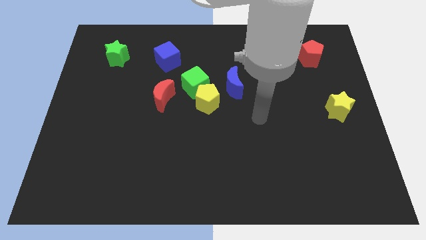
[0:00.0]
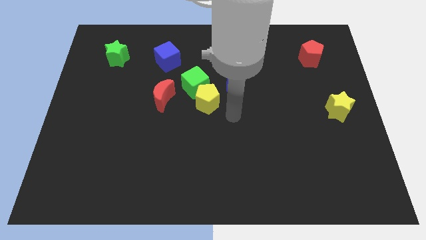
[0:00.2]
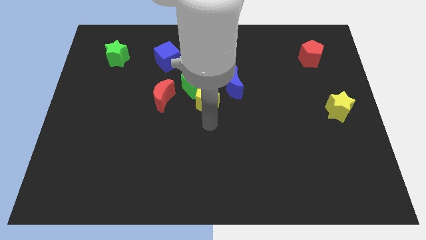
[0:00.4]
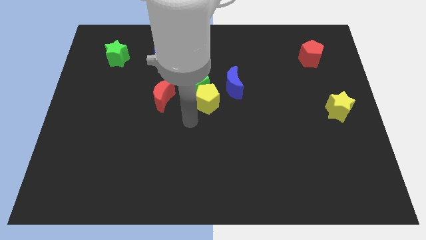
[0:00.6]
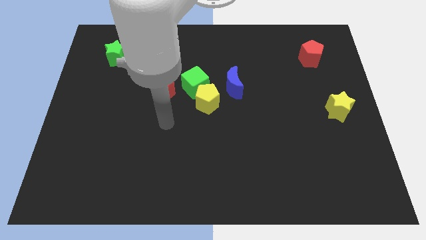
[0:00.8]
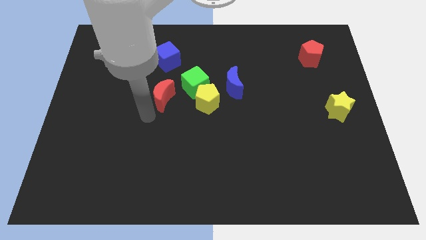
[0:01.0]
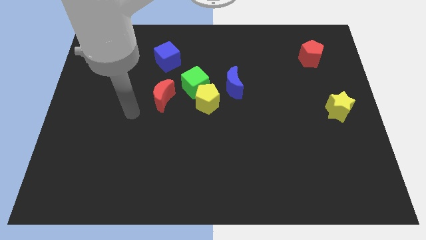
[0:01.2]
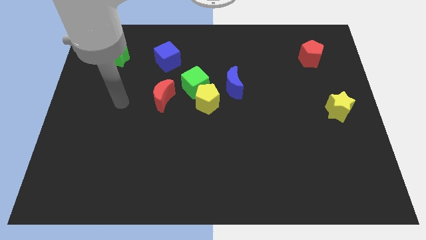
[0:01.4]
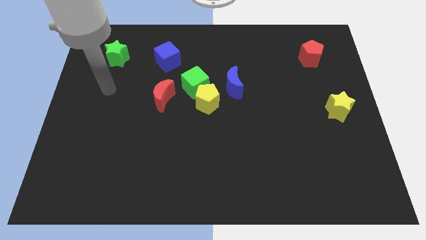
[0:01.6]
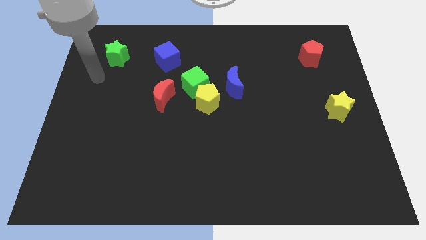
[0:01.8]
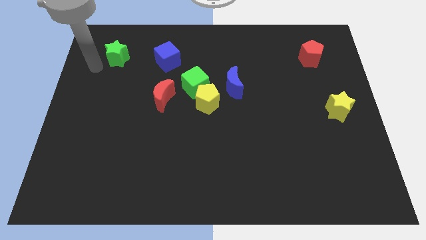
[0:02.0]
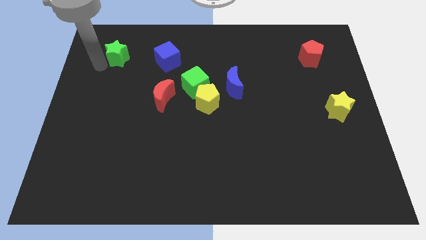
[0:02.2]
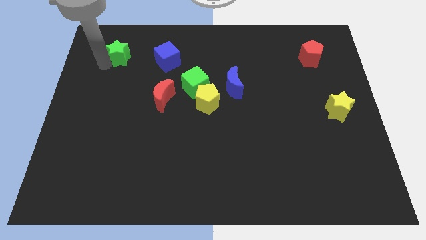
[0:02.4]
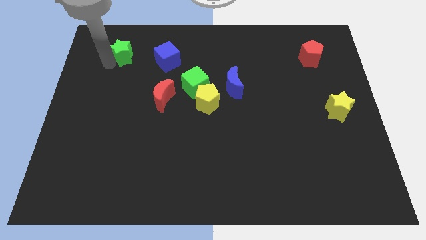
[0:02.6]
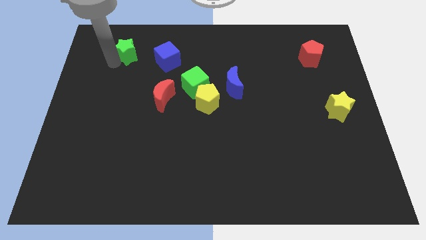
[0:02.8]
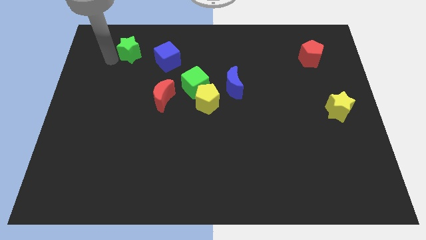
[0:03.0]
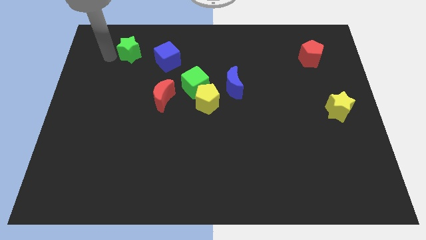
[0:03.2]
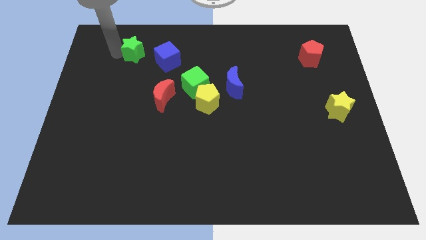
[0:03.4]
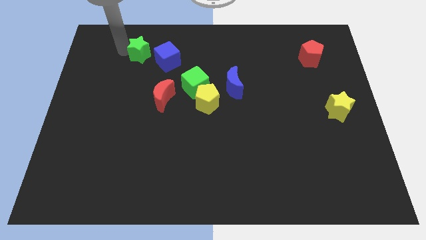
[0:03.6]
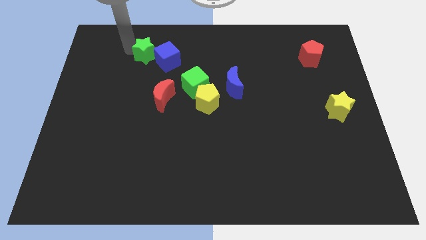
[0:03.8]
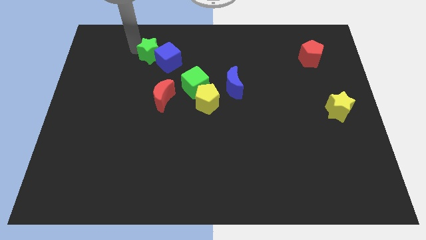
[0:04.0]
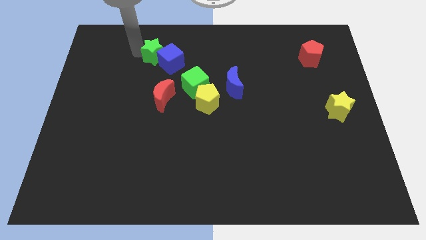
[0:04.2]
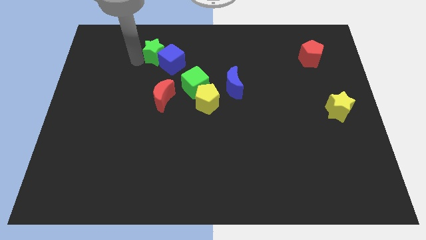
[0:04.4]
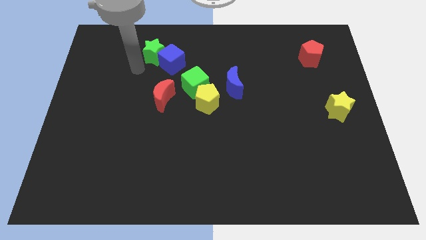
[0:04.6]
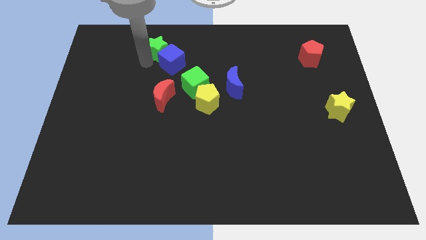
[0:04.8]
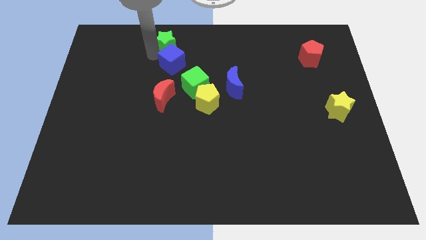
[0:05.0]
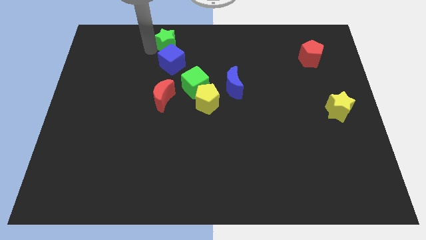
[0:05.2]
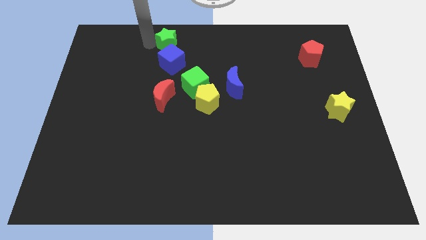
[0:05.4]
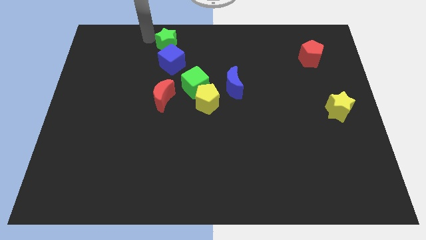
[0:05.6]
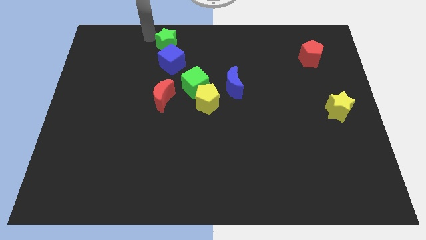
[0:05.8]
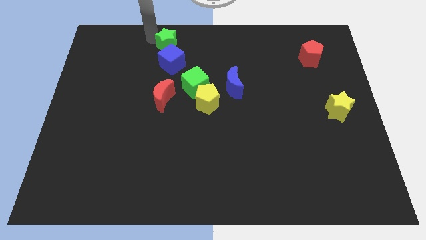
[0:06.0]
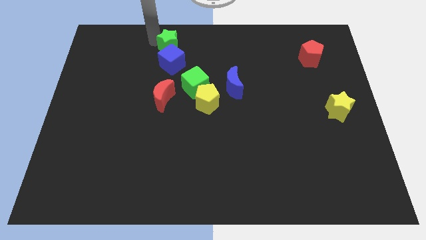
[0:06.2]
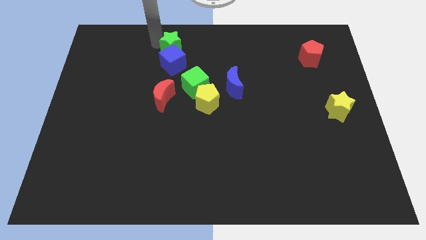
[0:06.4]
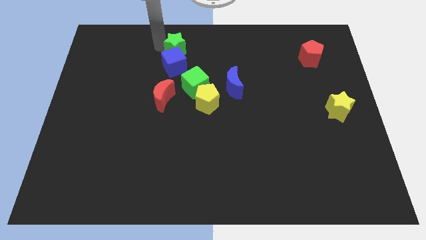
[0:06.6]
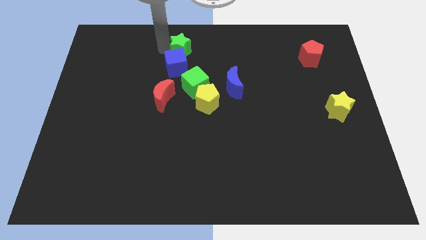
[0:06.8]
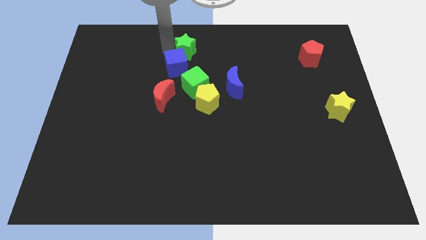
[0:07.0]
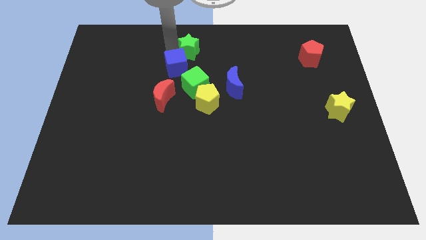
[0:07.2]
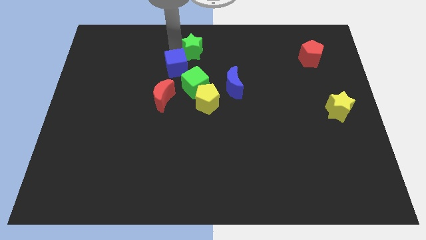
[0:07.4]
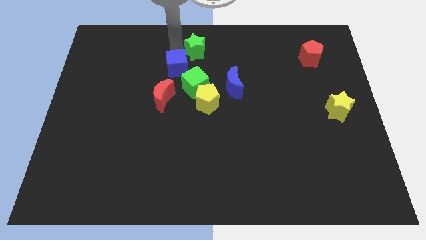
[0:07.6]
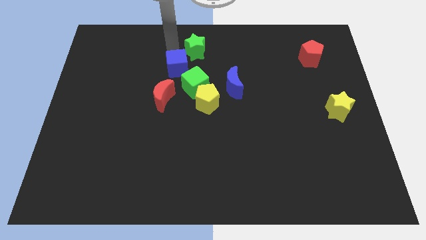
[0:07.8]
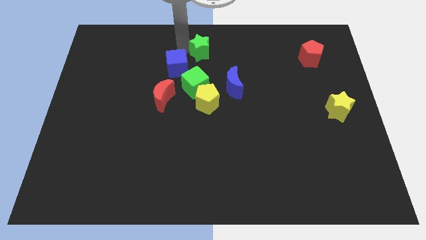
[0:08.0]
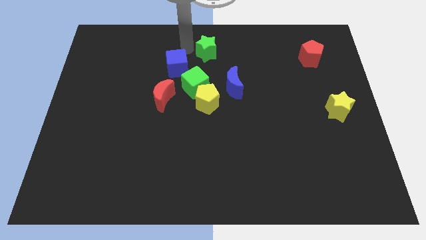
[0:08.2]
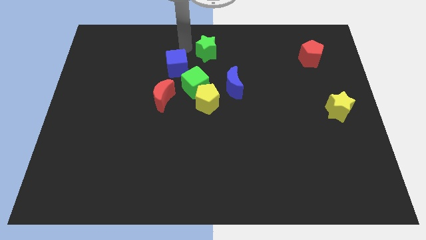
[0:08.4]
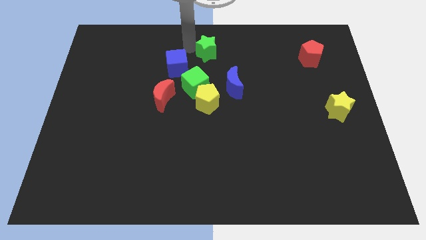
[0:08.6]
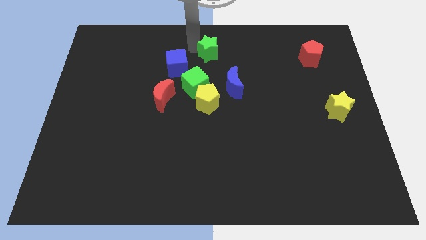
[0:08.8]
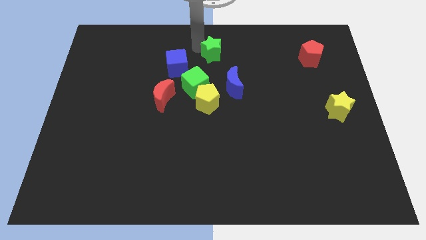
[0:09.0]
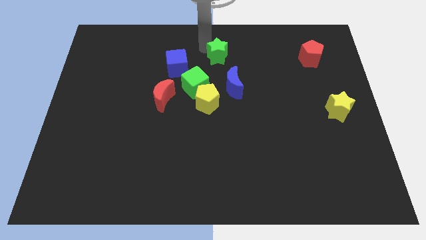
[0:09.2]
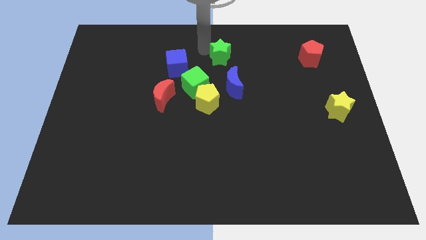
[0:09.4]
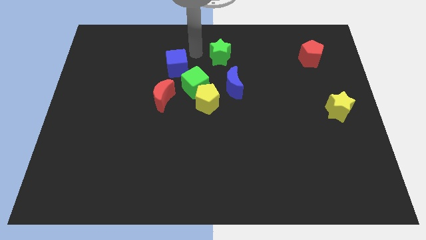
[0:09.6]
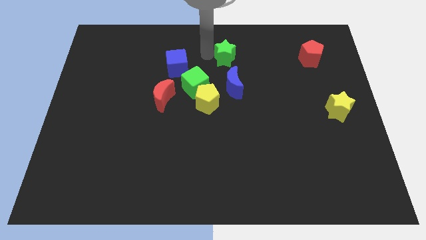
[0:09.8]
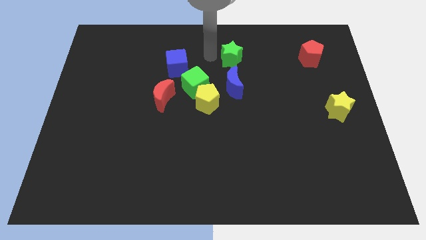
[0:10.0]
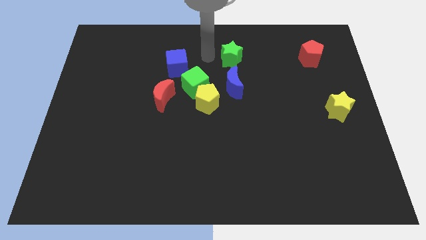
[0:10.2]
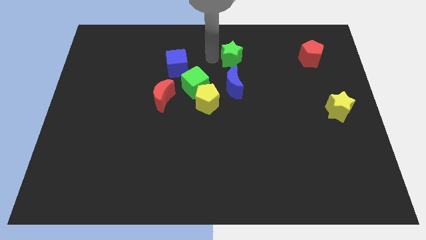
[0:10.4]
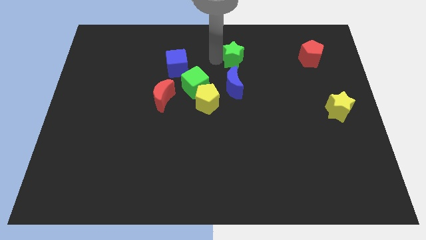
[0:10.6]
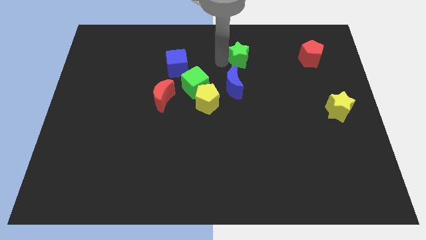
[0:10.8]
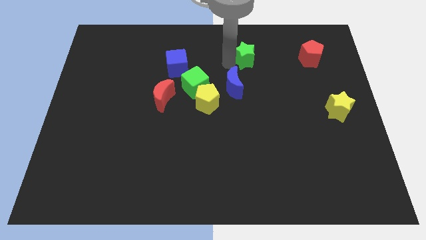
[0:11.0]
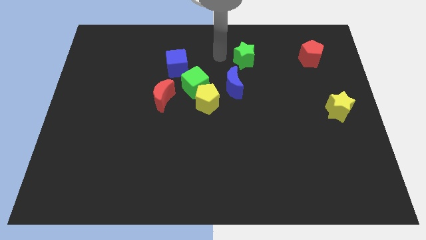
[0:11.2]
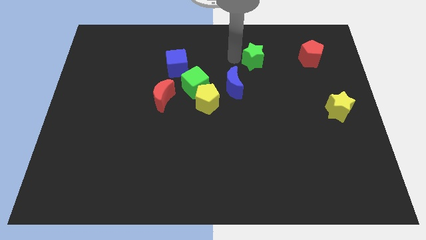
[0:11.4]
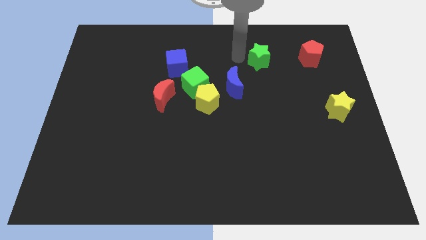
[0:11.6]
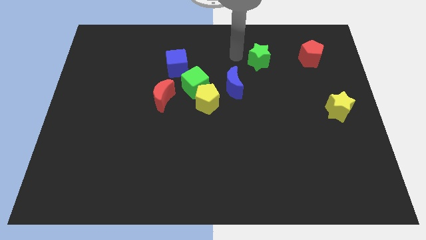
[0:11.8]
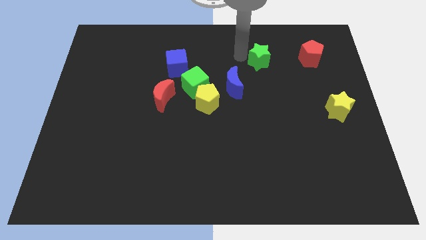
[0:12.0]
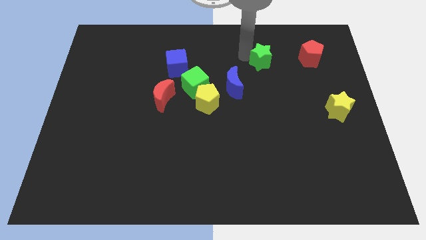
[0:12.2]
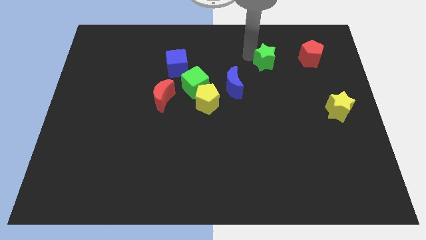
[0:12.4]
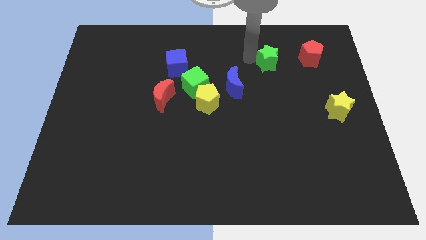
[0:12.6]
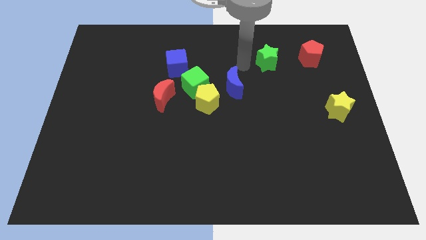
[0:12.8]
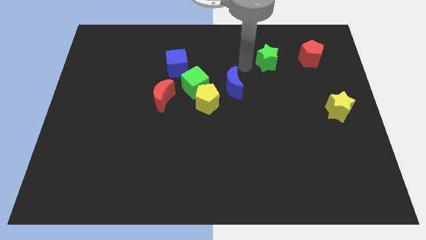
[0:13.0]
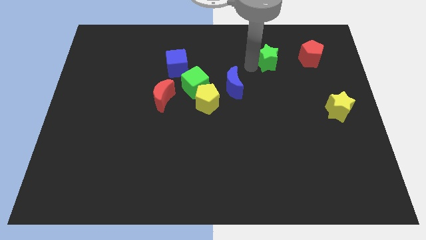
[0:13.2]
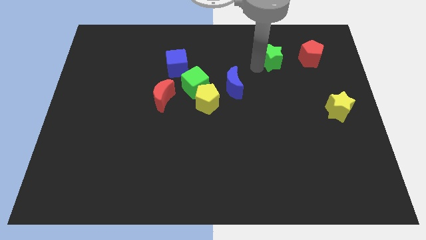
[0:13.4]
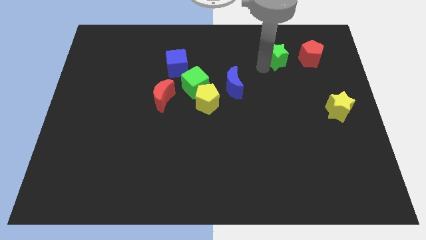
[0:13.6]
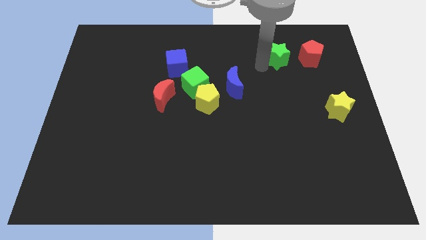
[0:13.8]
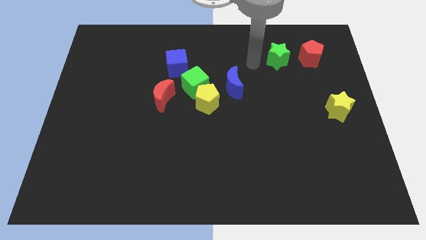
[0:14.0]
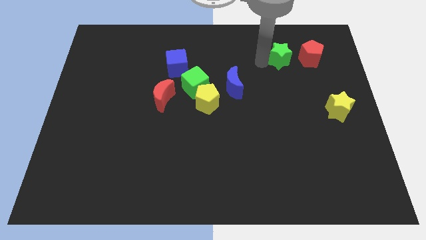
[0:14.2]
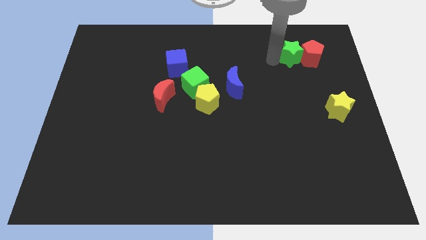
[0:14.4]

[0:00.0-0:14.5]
move the green star towards the red pentagon
